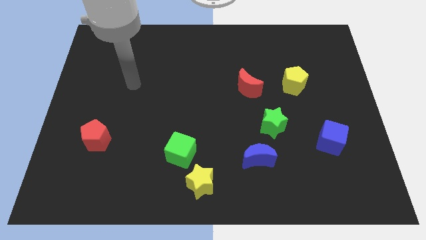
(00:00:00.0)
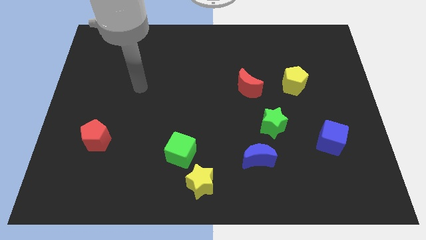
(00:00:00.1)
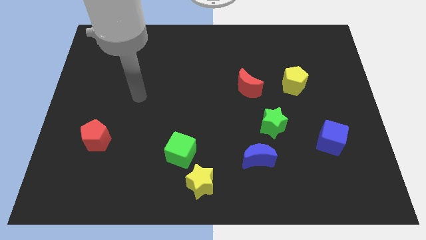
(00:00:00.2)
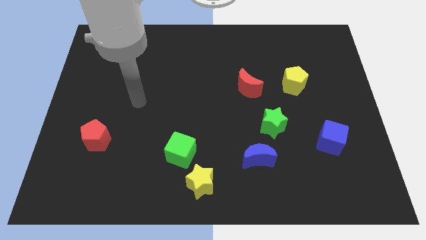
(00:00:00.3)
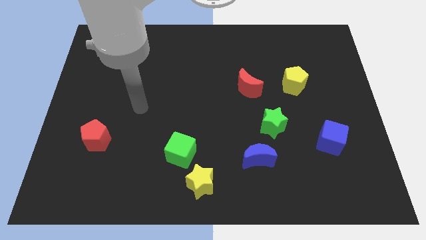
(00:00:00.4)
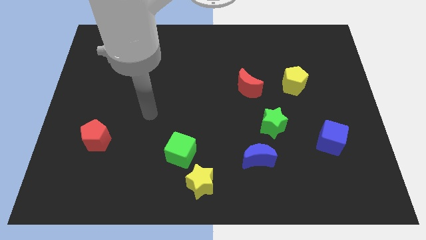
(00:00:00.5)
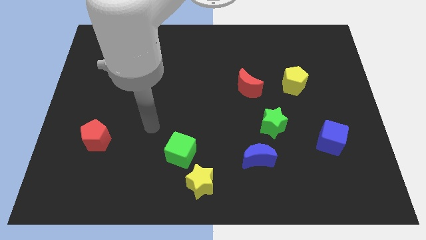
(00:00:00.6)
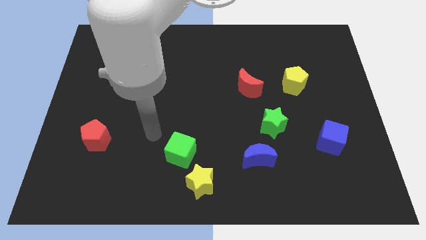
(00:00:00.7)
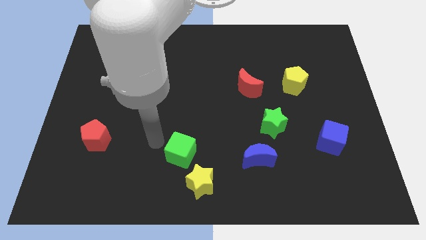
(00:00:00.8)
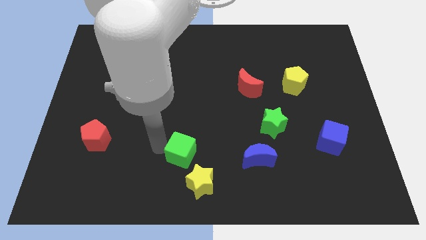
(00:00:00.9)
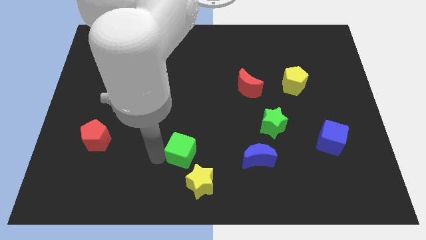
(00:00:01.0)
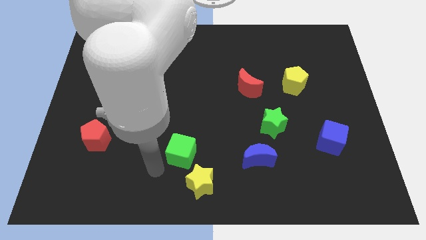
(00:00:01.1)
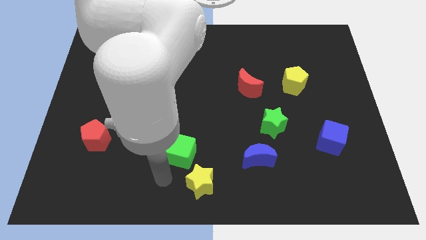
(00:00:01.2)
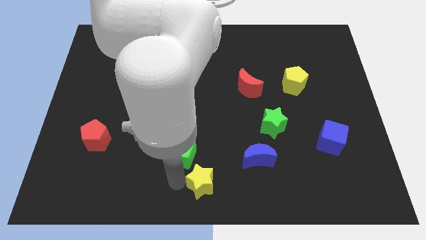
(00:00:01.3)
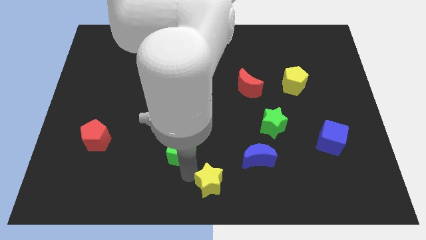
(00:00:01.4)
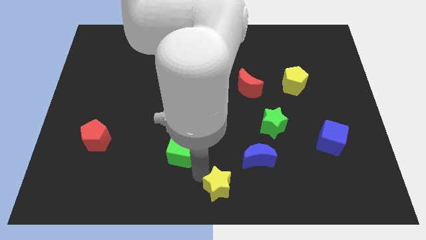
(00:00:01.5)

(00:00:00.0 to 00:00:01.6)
move the green cube away from the yellow star

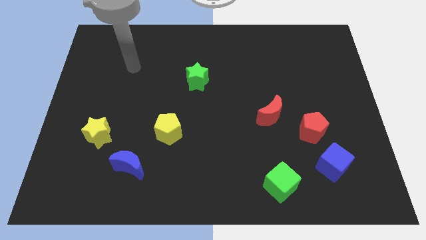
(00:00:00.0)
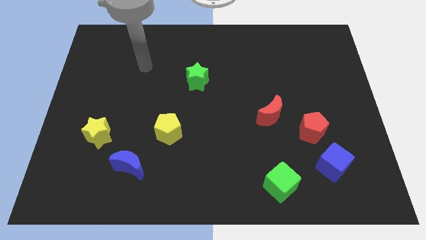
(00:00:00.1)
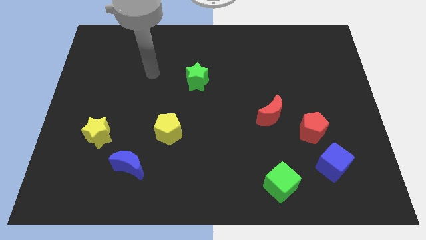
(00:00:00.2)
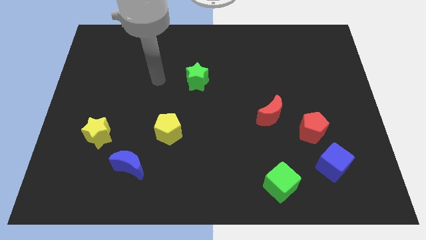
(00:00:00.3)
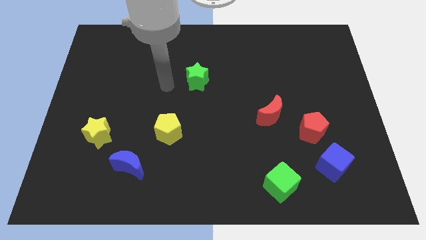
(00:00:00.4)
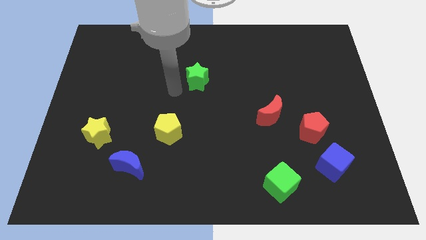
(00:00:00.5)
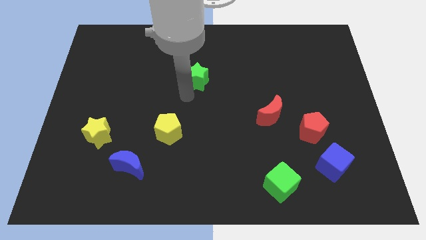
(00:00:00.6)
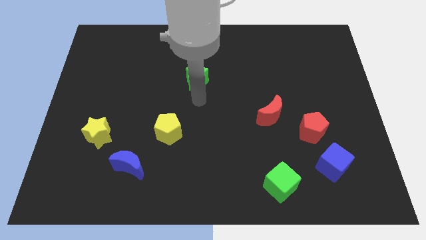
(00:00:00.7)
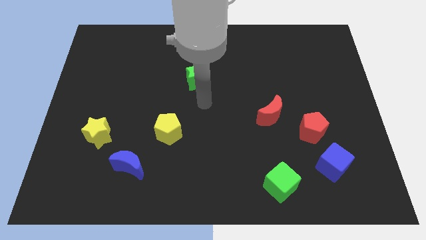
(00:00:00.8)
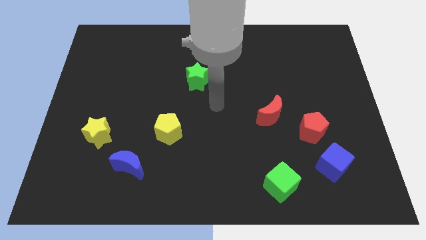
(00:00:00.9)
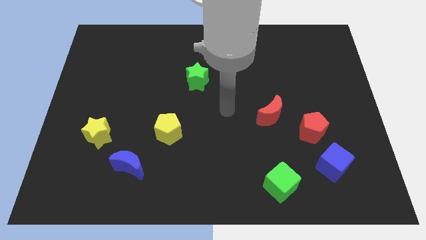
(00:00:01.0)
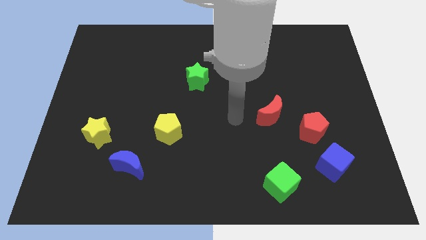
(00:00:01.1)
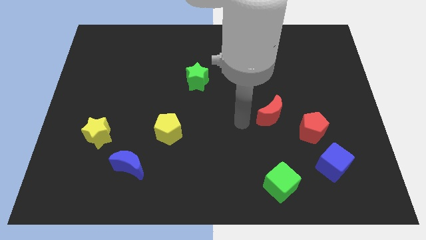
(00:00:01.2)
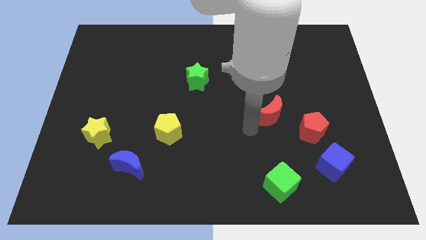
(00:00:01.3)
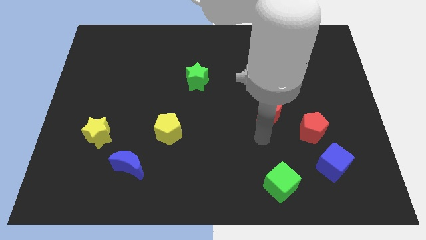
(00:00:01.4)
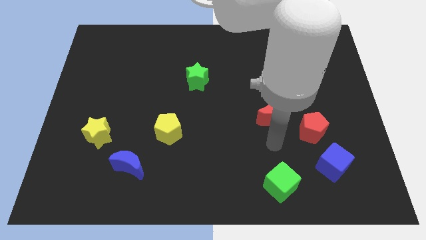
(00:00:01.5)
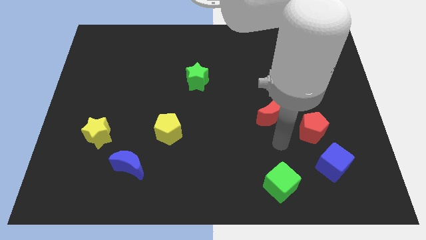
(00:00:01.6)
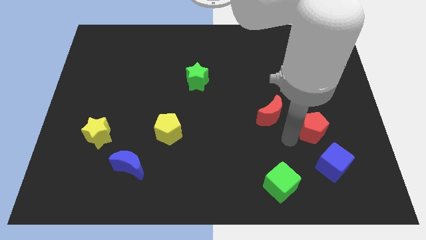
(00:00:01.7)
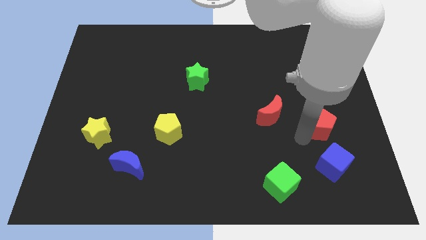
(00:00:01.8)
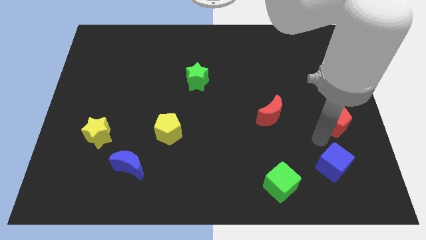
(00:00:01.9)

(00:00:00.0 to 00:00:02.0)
pull the blue cube apart from the red pentagon

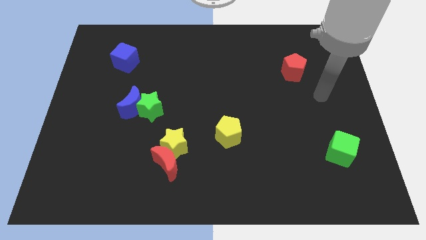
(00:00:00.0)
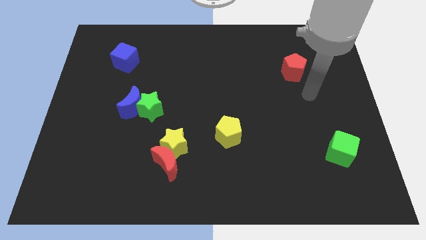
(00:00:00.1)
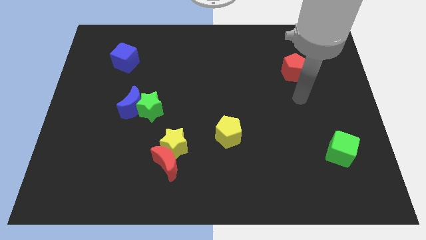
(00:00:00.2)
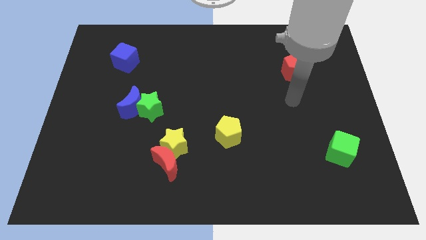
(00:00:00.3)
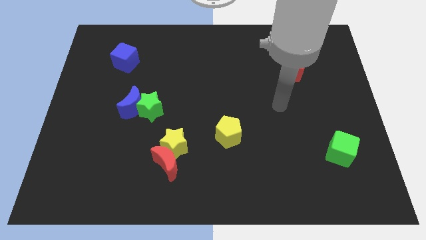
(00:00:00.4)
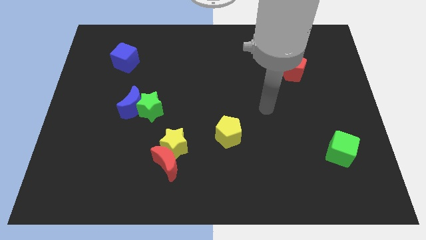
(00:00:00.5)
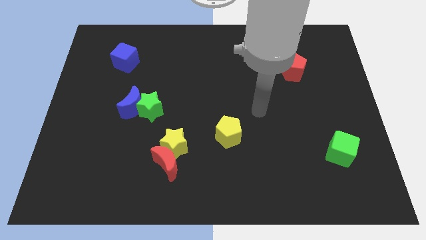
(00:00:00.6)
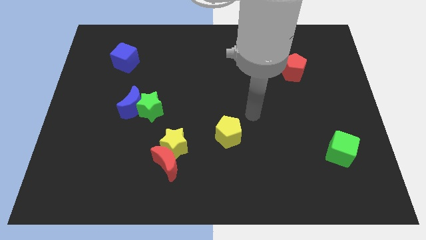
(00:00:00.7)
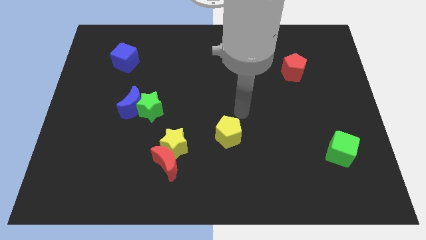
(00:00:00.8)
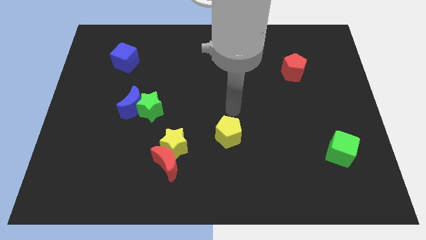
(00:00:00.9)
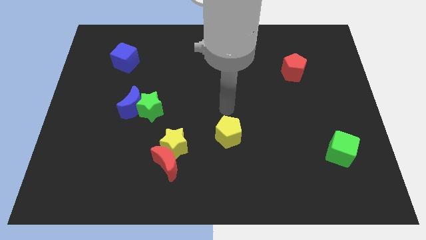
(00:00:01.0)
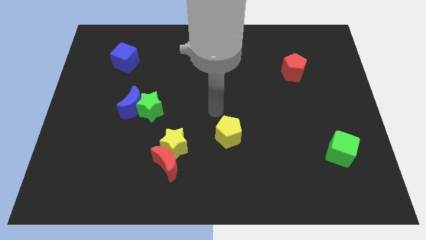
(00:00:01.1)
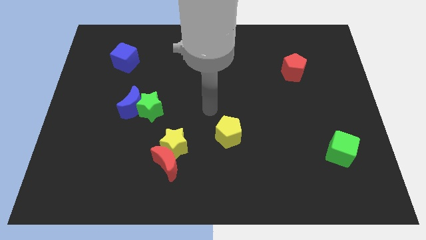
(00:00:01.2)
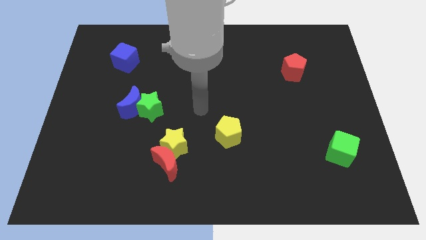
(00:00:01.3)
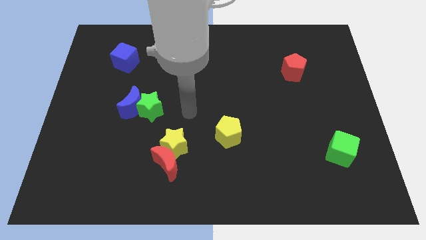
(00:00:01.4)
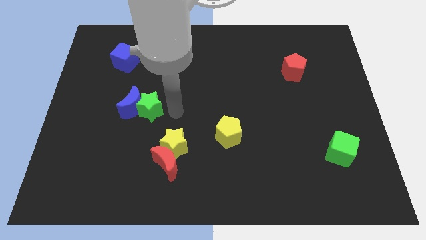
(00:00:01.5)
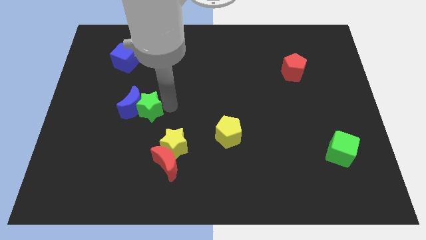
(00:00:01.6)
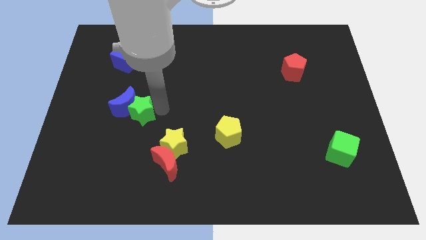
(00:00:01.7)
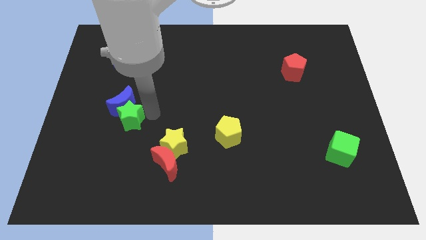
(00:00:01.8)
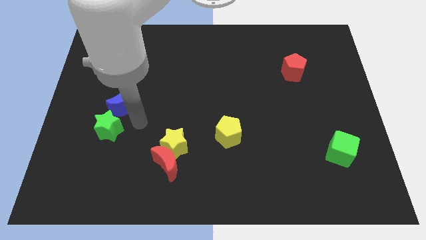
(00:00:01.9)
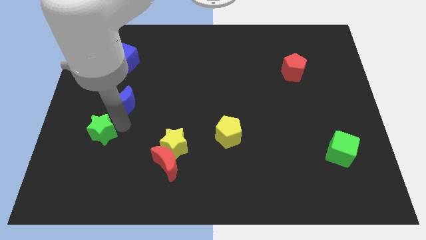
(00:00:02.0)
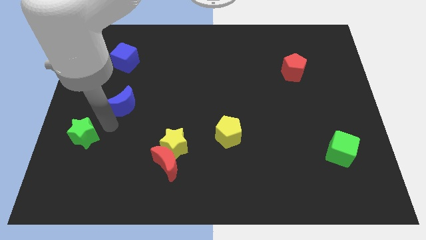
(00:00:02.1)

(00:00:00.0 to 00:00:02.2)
pull the blue moon apart from the green star

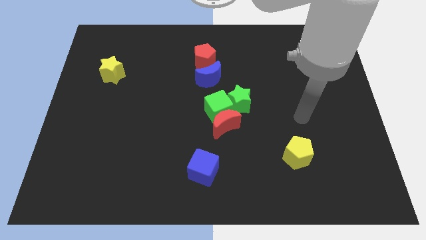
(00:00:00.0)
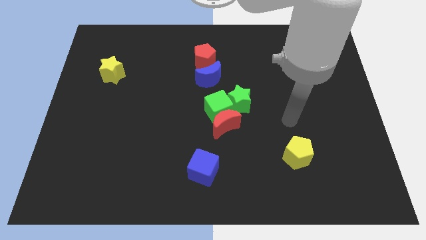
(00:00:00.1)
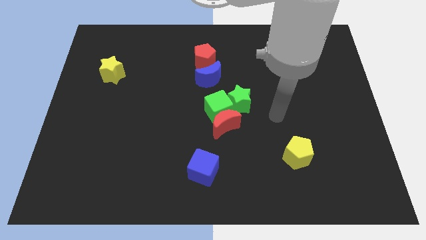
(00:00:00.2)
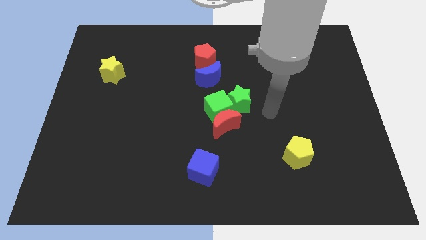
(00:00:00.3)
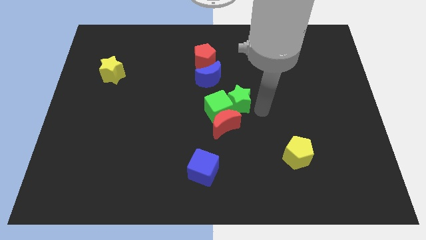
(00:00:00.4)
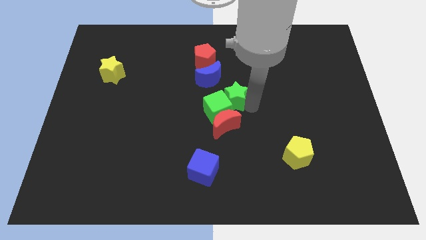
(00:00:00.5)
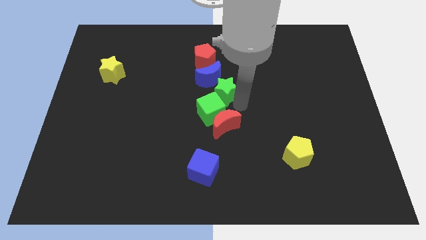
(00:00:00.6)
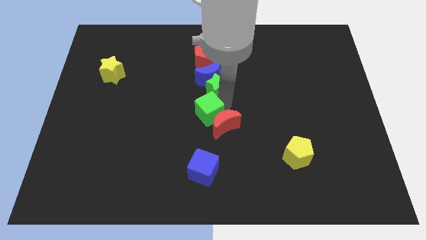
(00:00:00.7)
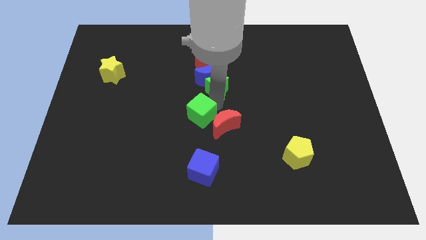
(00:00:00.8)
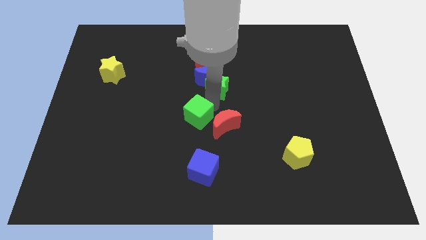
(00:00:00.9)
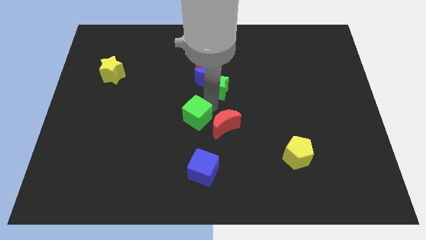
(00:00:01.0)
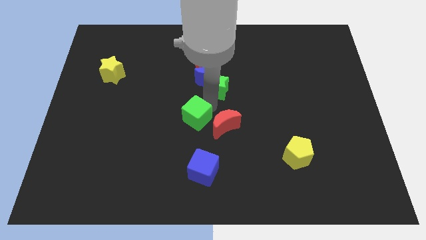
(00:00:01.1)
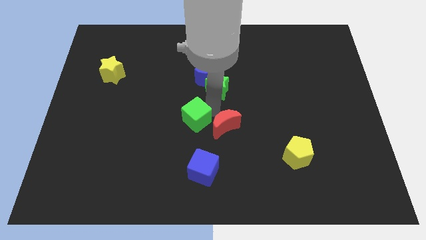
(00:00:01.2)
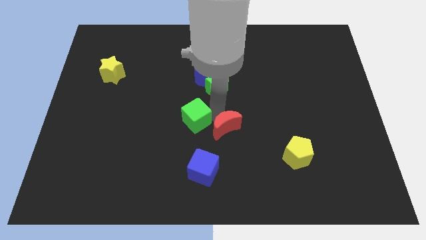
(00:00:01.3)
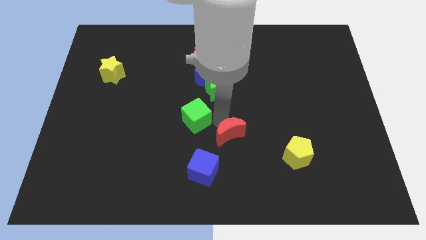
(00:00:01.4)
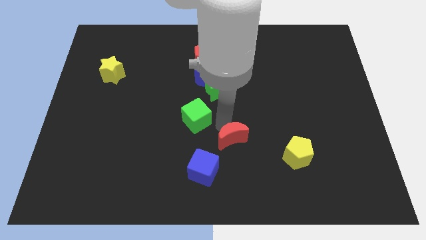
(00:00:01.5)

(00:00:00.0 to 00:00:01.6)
pull the red moon apart from the green cube and green star

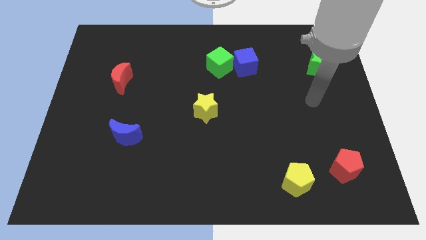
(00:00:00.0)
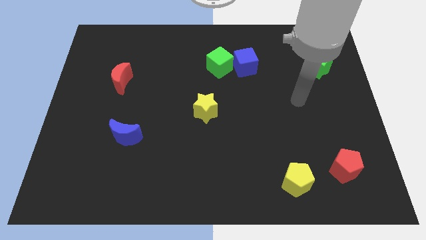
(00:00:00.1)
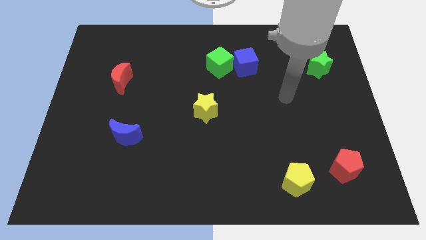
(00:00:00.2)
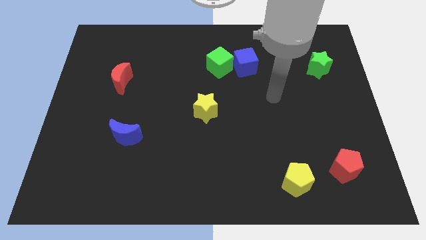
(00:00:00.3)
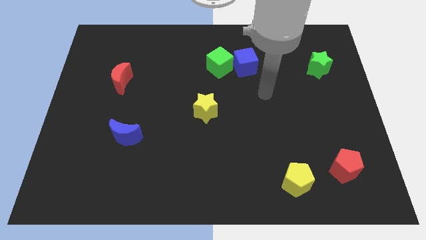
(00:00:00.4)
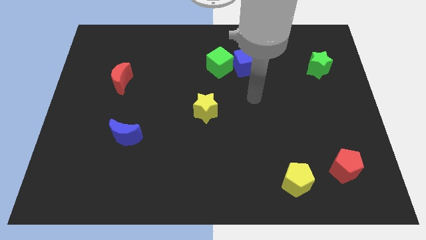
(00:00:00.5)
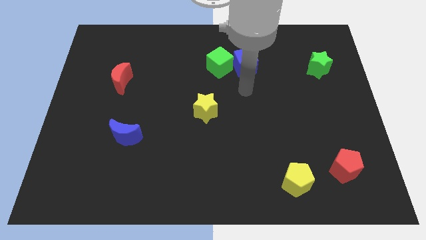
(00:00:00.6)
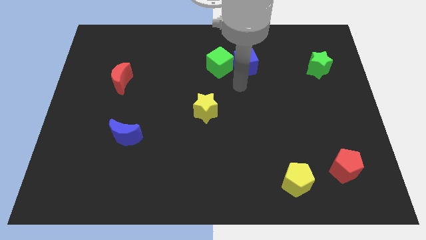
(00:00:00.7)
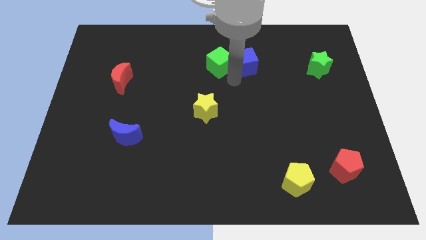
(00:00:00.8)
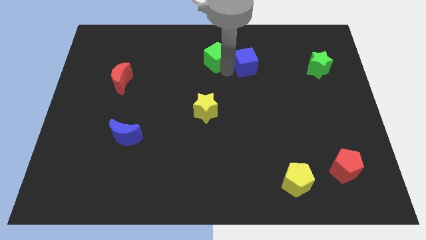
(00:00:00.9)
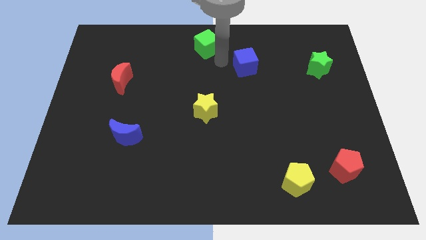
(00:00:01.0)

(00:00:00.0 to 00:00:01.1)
separate the blue cube from the green cube

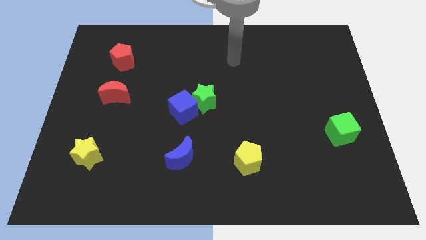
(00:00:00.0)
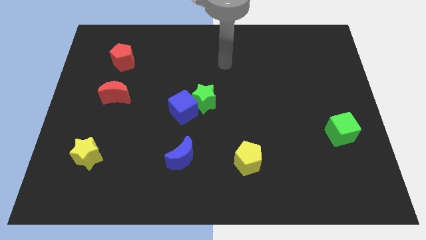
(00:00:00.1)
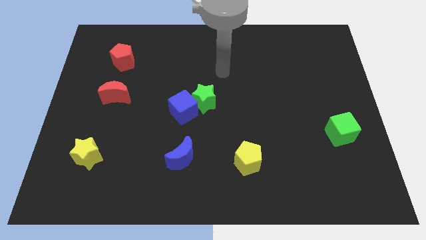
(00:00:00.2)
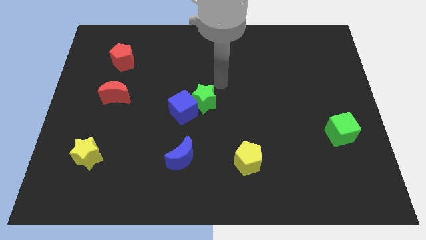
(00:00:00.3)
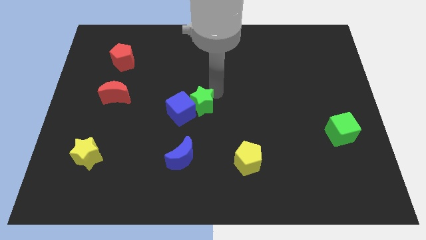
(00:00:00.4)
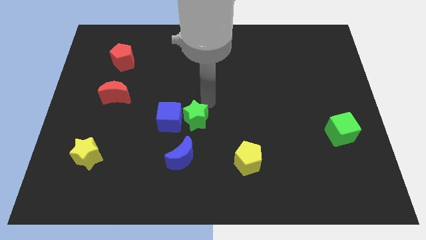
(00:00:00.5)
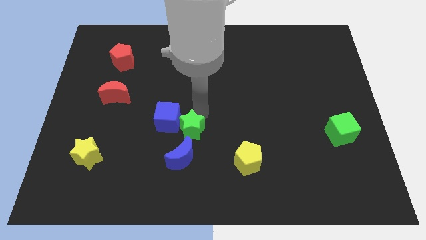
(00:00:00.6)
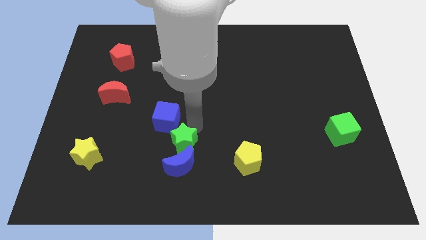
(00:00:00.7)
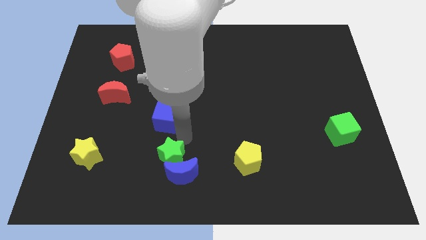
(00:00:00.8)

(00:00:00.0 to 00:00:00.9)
pull the blue cube apart from the green star
